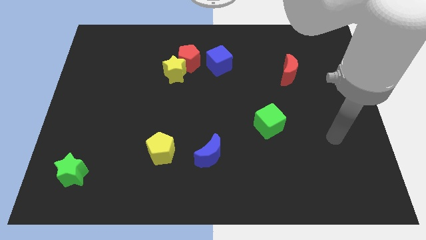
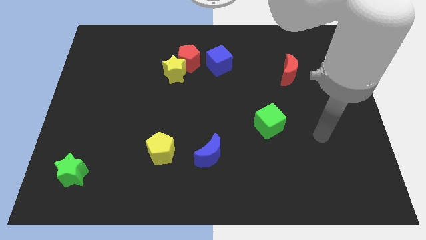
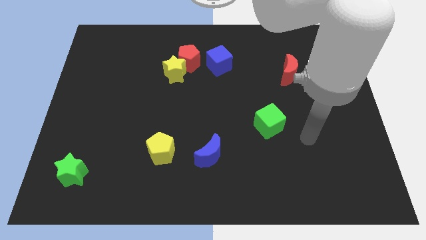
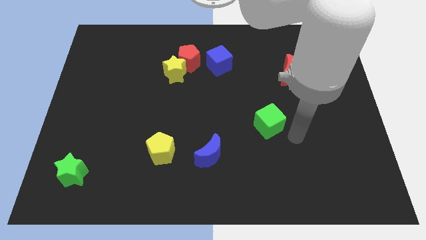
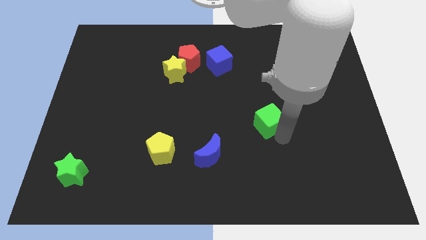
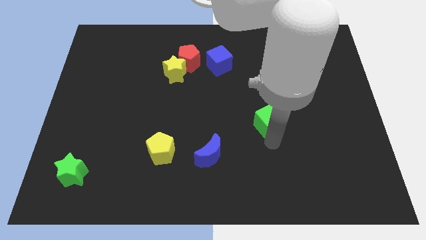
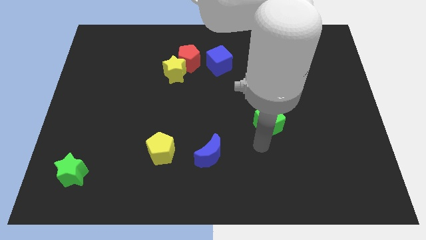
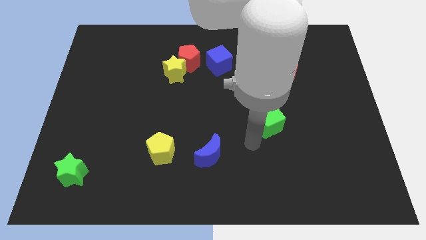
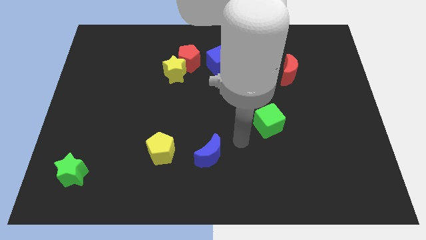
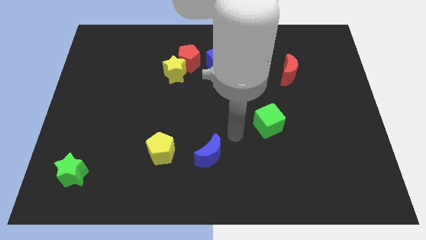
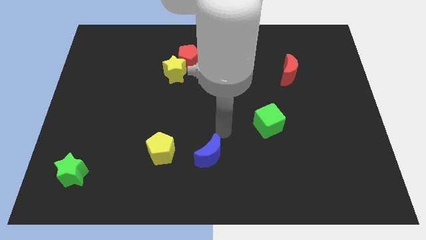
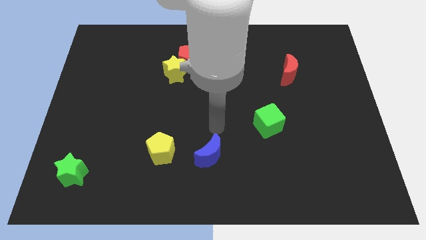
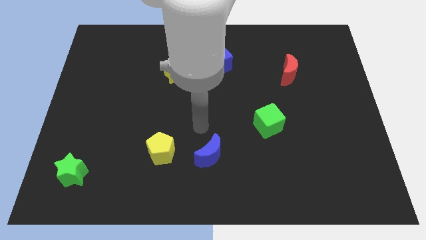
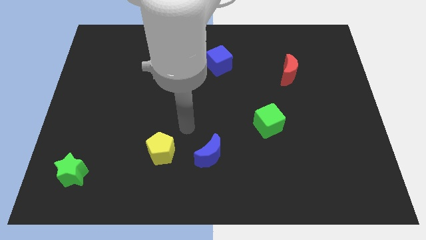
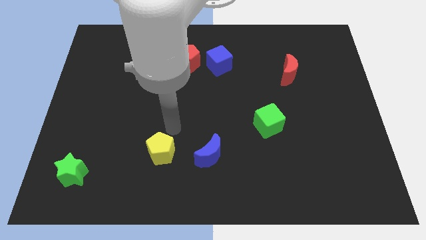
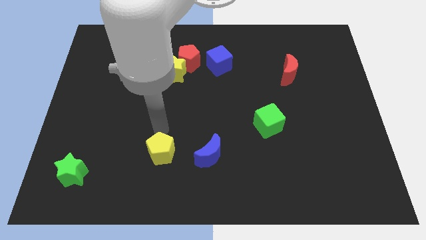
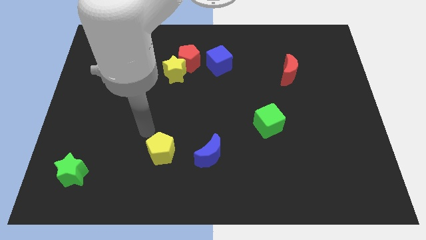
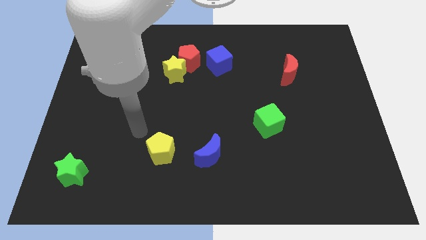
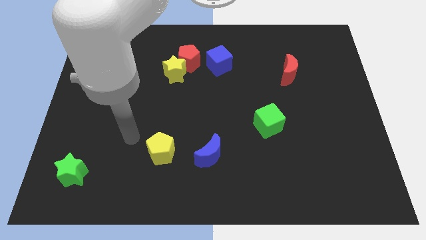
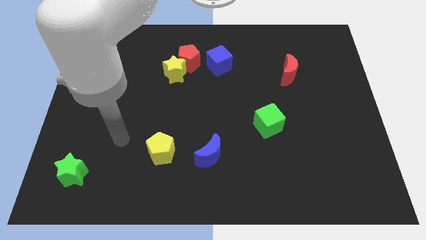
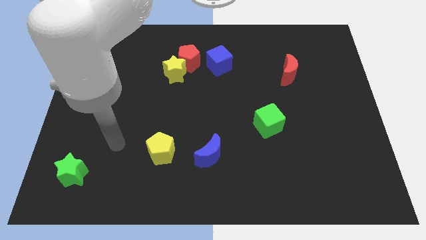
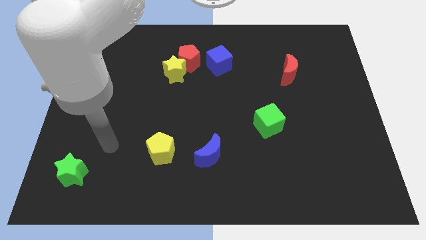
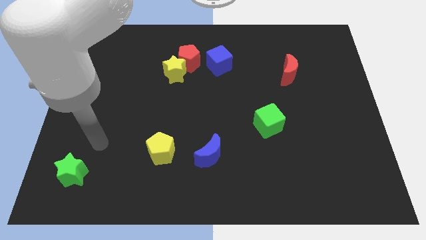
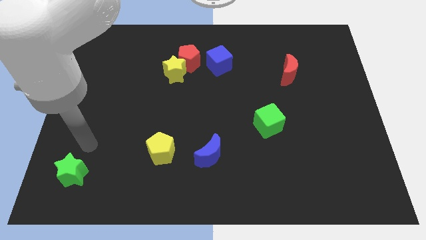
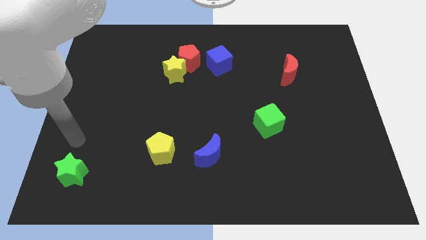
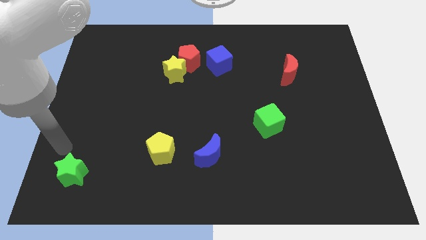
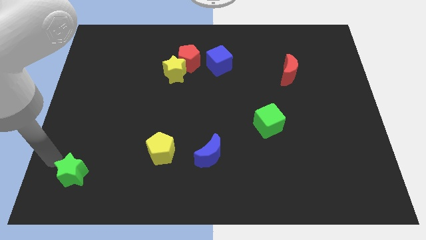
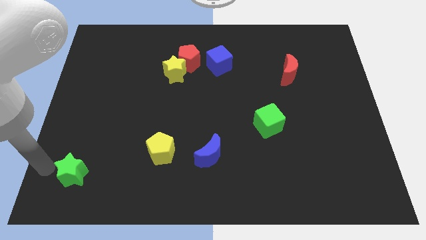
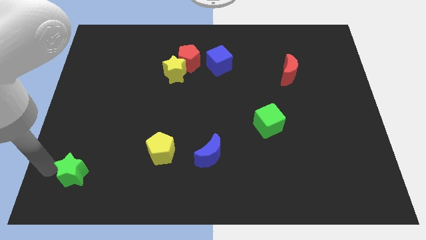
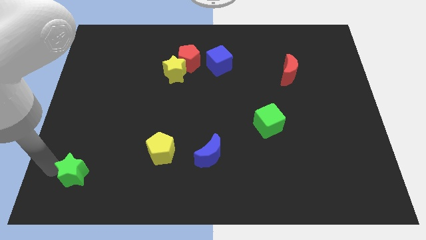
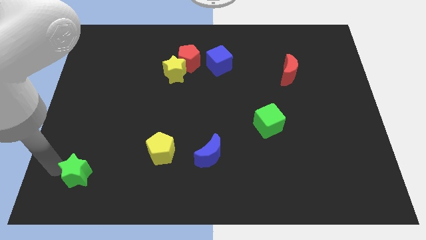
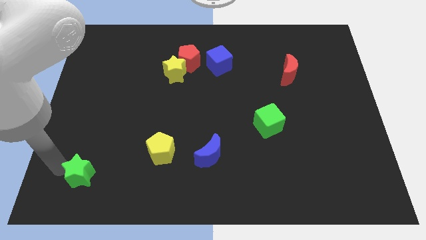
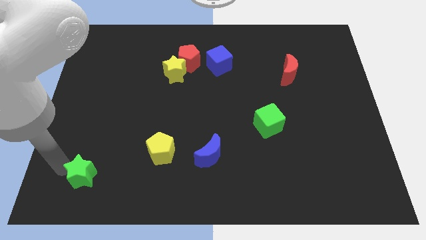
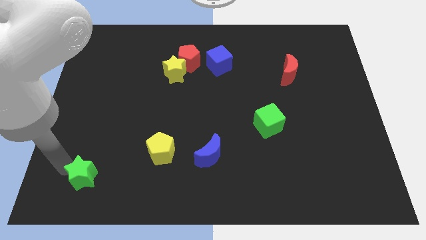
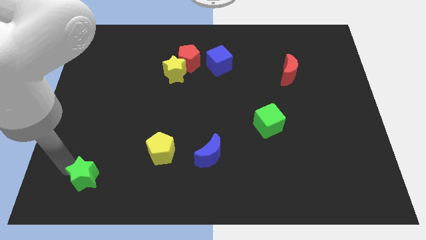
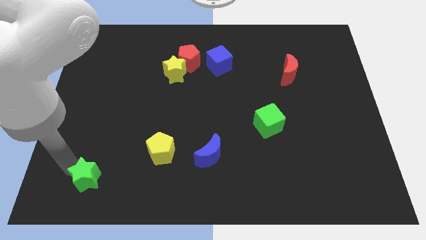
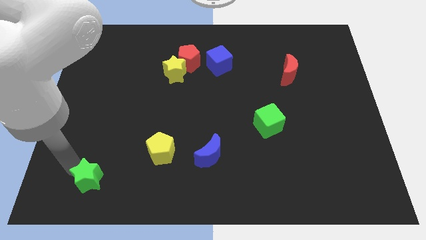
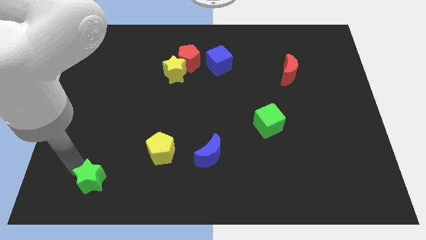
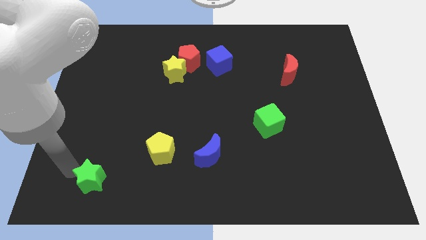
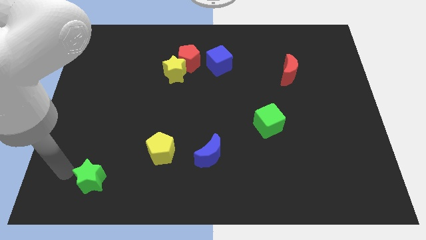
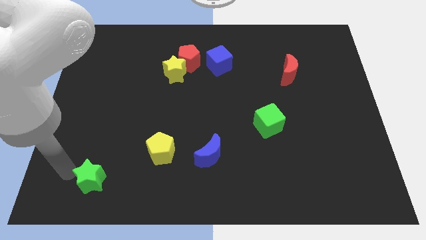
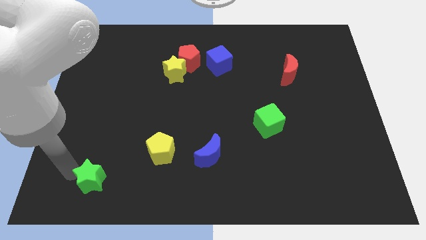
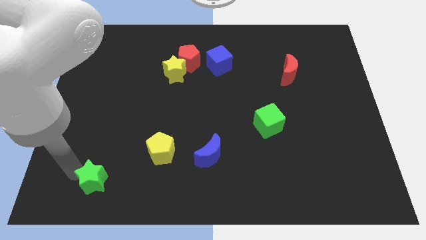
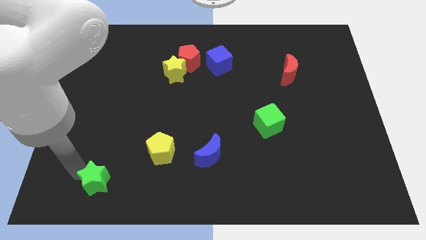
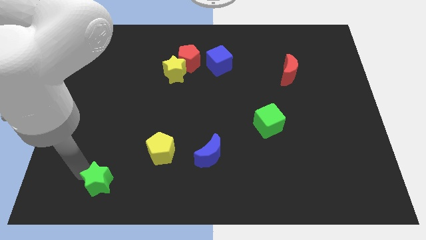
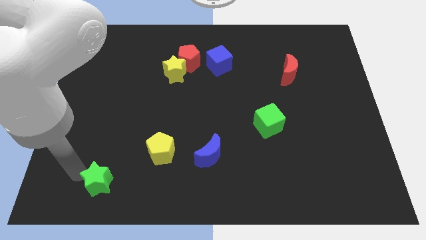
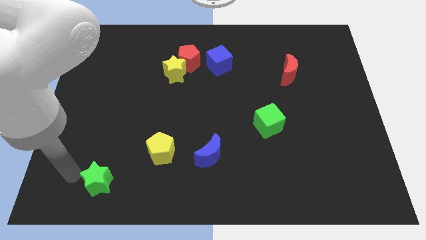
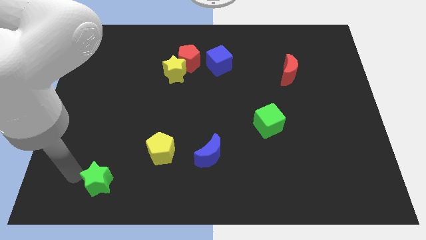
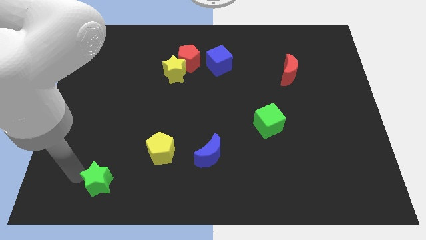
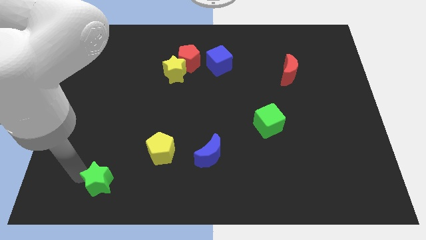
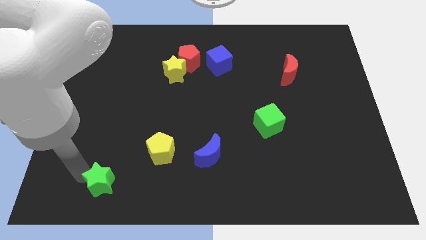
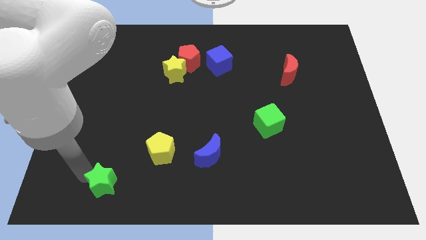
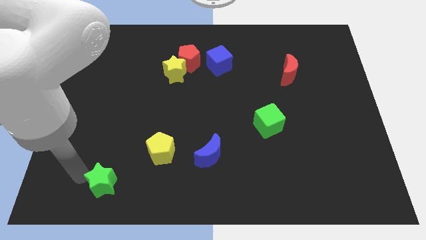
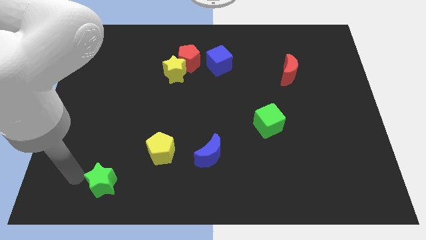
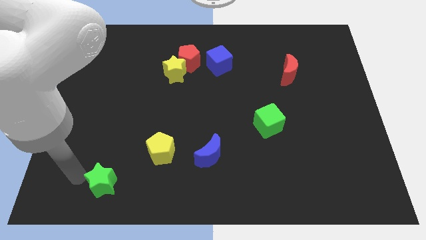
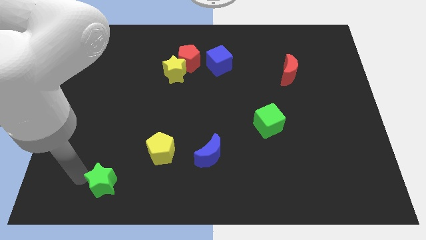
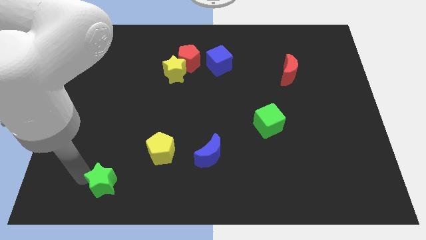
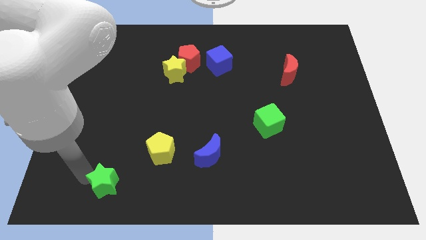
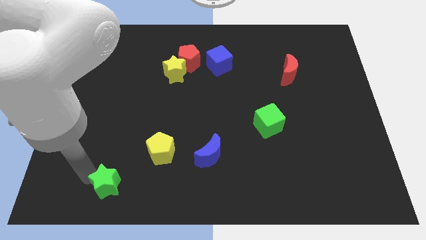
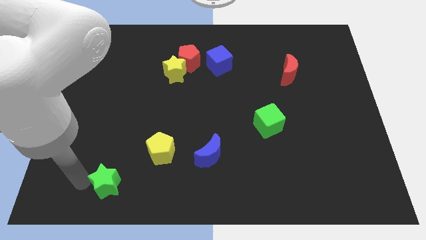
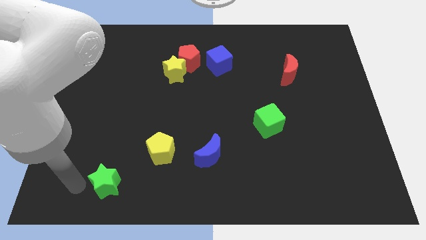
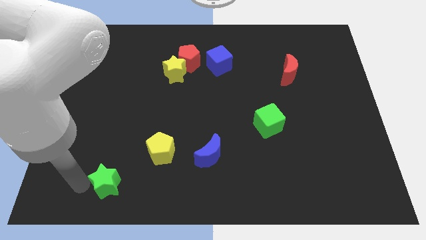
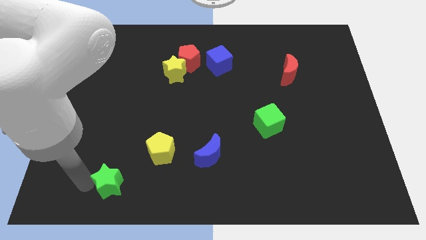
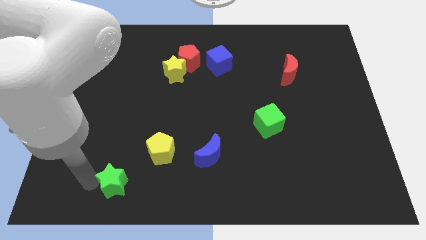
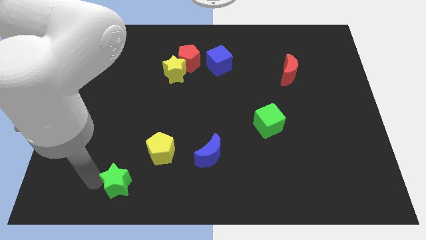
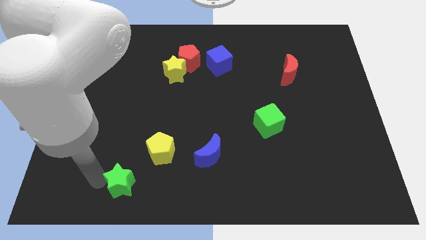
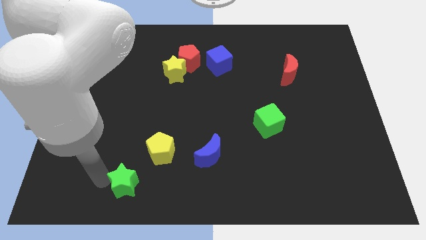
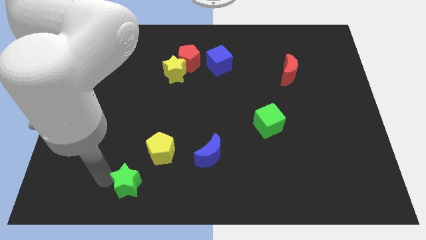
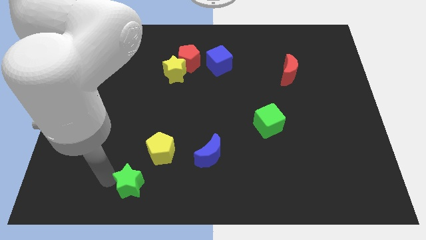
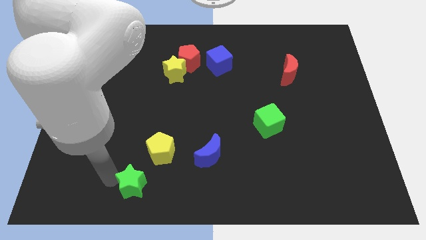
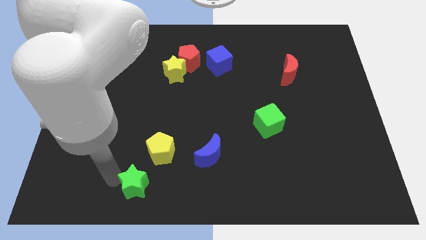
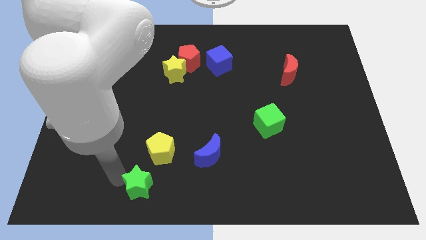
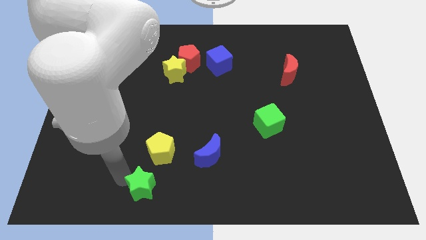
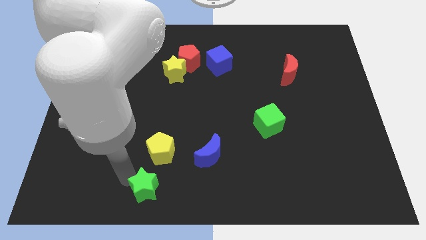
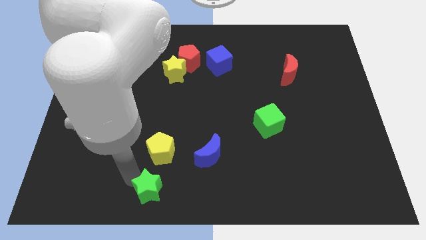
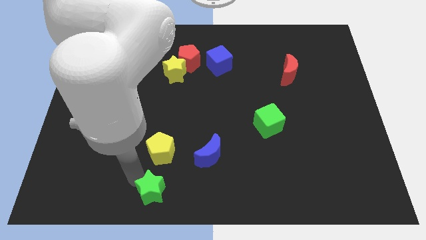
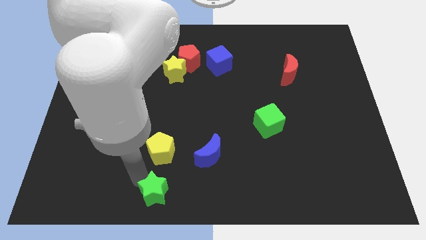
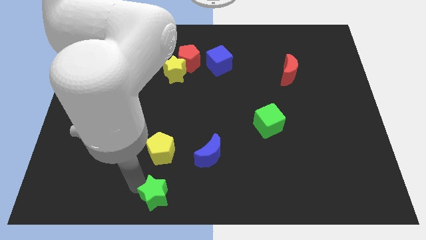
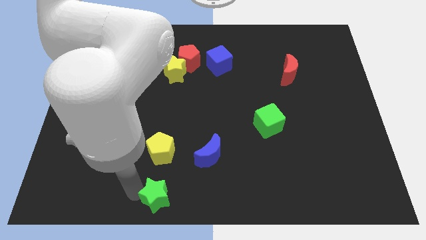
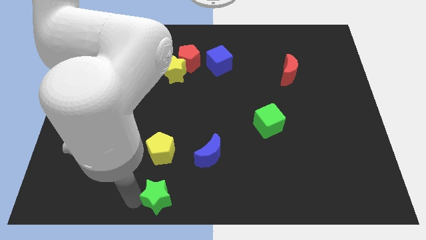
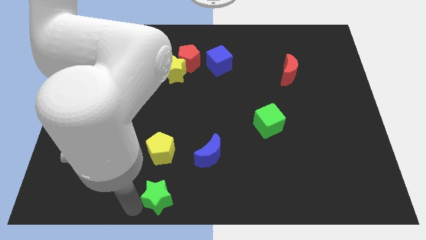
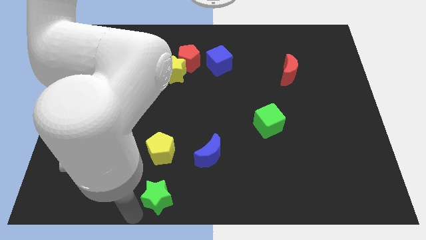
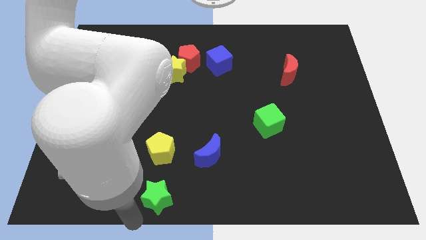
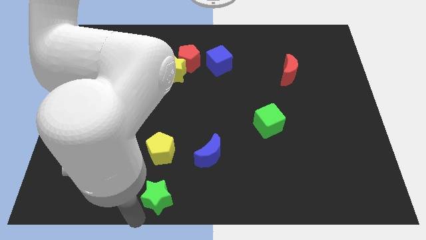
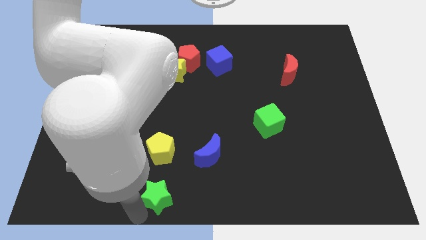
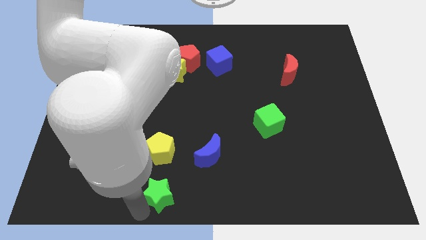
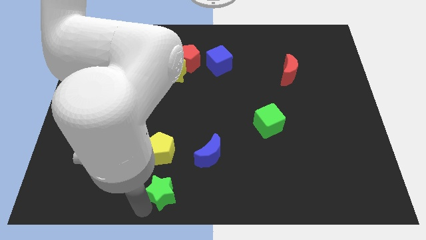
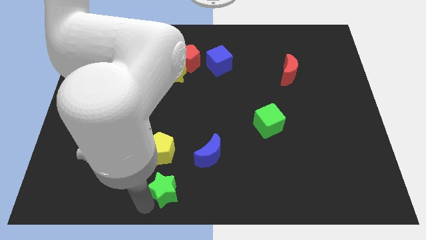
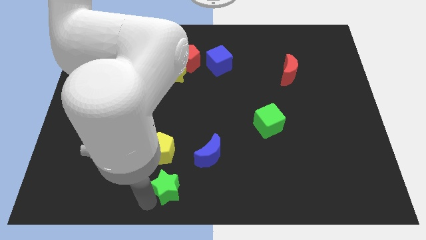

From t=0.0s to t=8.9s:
slide the green star to the bottom right of the yellow pentagon
